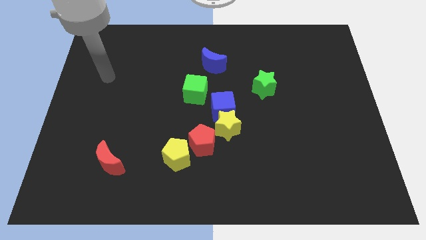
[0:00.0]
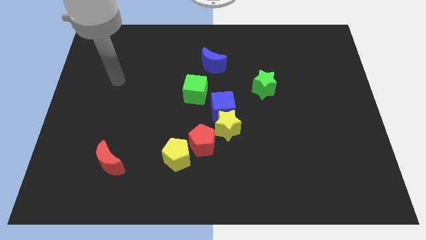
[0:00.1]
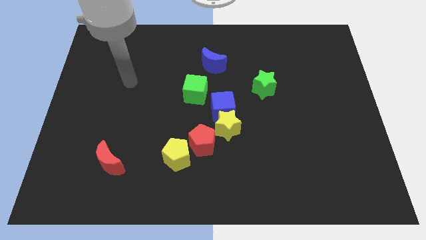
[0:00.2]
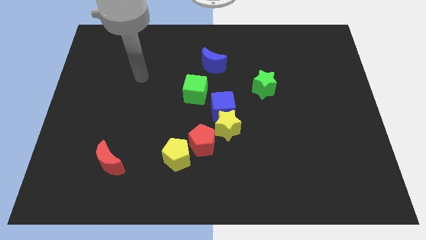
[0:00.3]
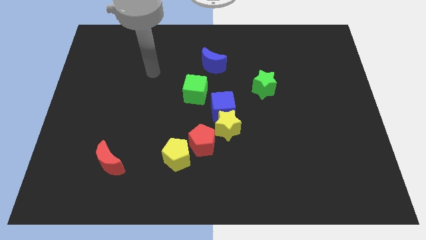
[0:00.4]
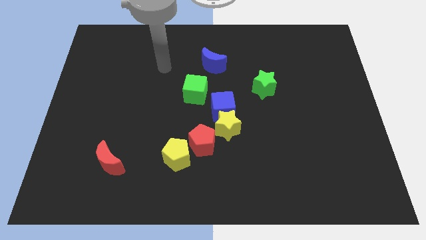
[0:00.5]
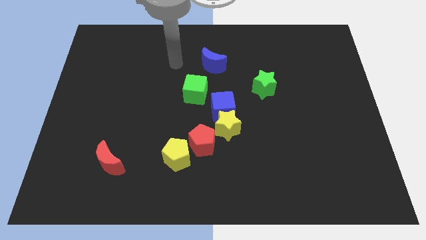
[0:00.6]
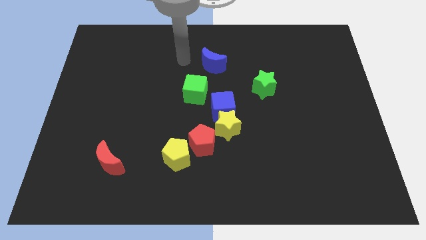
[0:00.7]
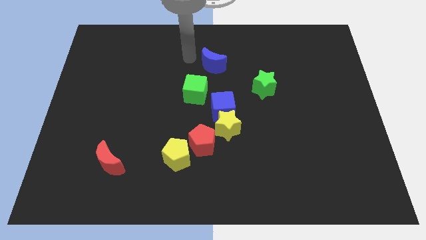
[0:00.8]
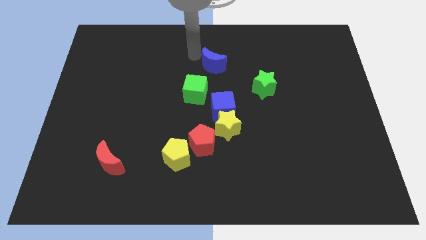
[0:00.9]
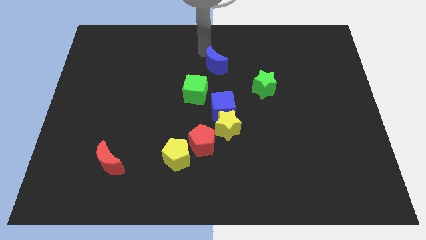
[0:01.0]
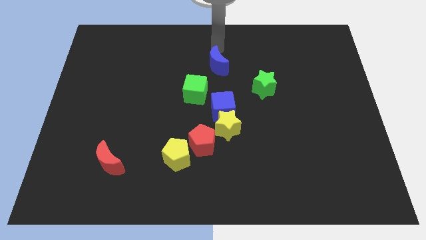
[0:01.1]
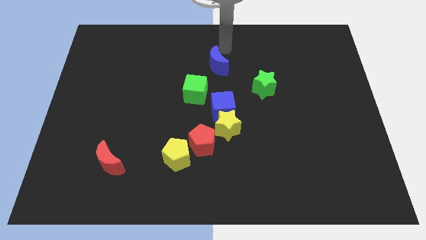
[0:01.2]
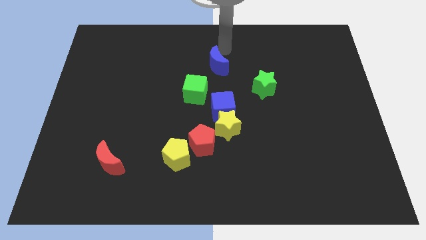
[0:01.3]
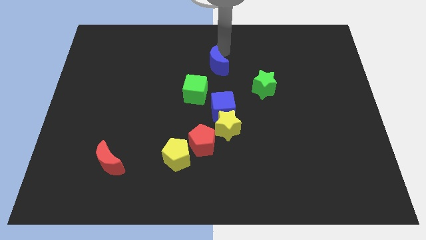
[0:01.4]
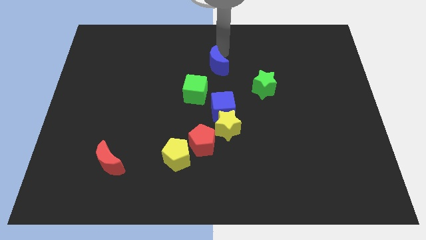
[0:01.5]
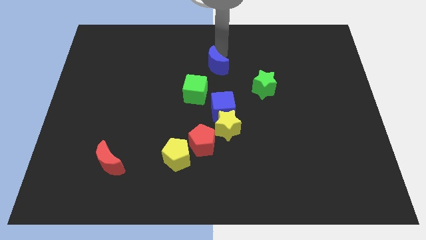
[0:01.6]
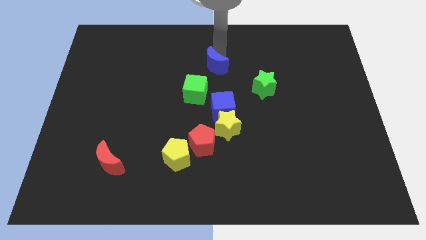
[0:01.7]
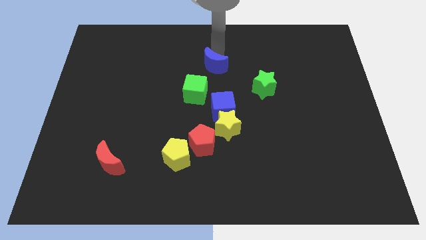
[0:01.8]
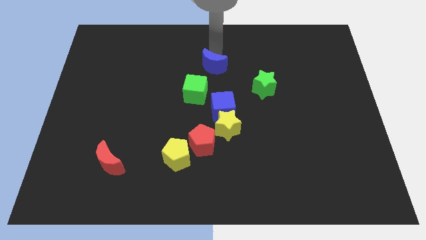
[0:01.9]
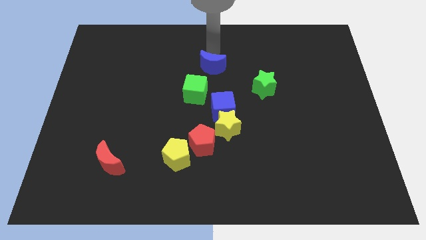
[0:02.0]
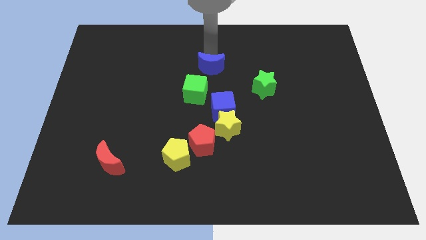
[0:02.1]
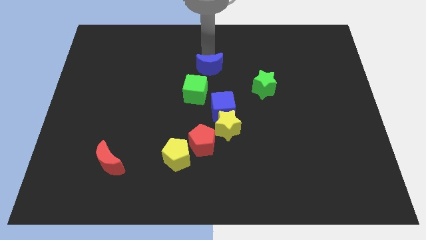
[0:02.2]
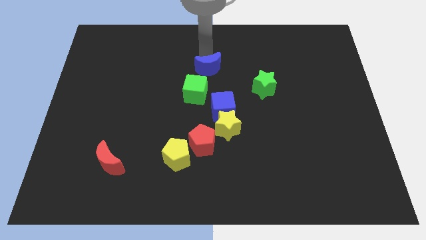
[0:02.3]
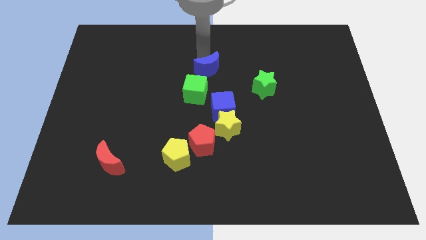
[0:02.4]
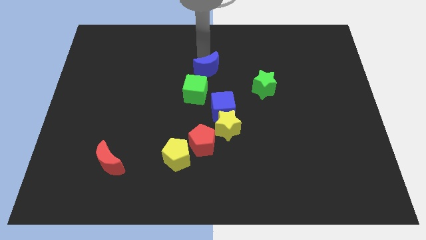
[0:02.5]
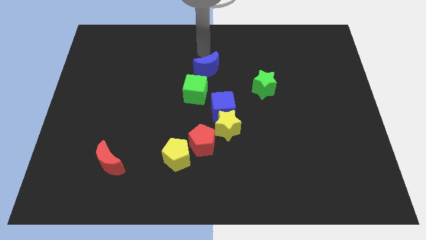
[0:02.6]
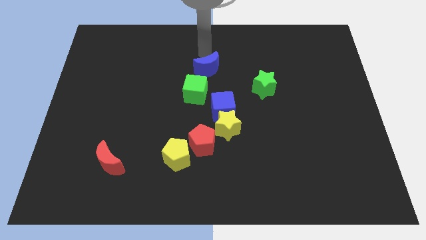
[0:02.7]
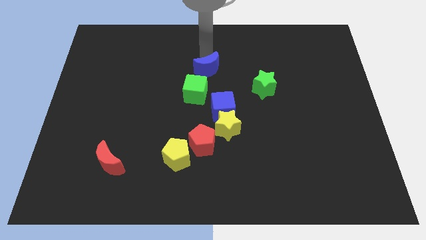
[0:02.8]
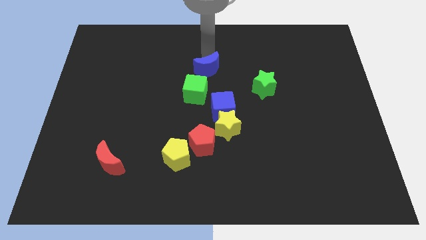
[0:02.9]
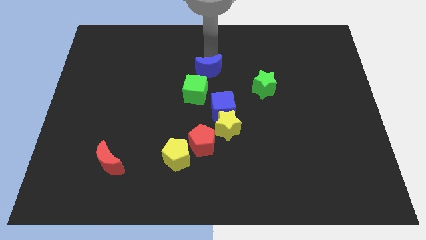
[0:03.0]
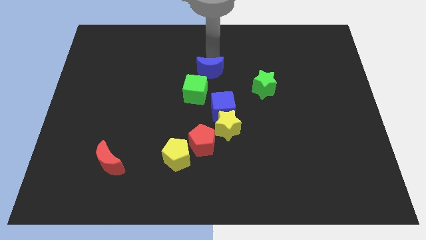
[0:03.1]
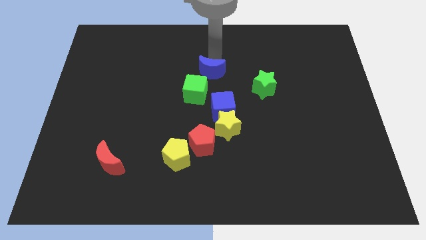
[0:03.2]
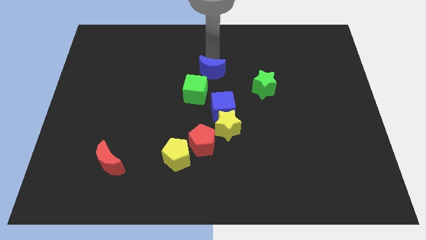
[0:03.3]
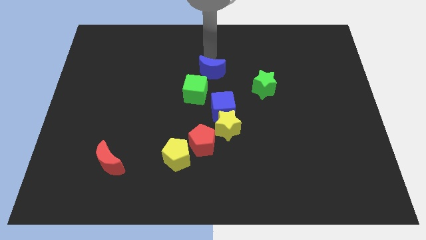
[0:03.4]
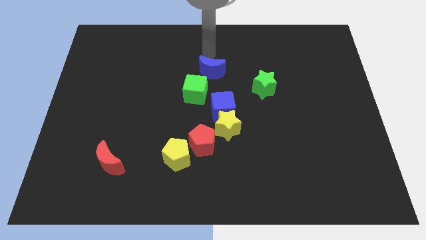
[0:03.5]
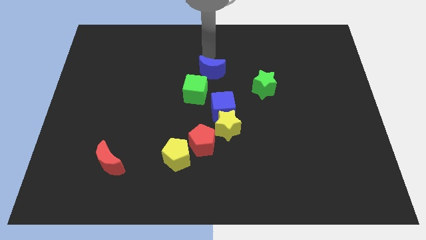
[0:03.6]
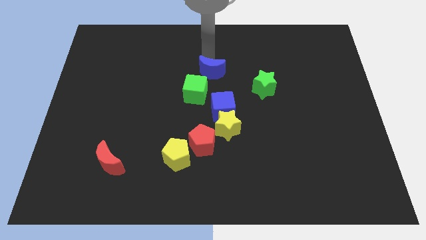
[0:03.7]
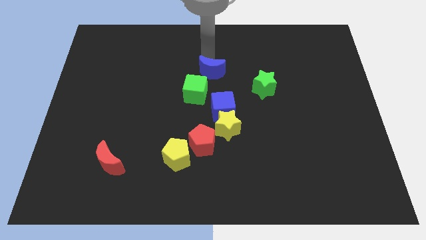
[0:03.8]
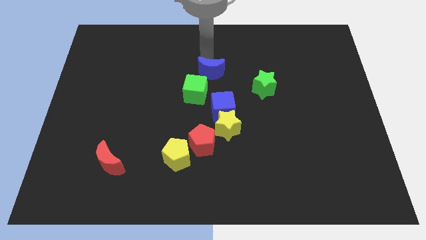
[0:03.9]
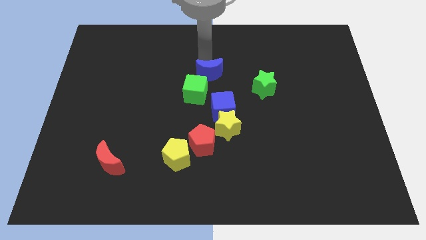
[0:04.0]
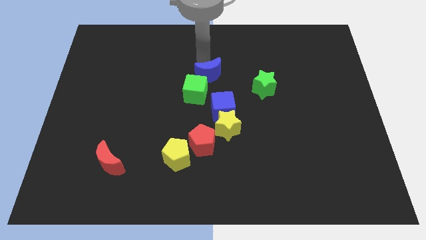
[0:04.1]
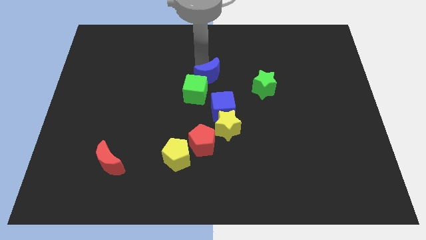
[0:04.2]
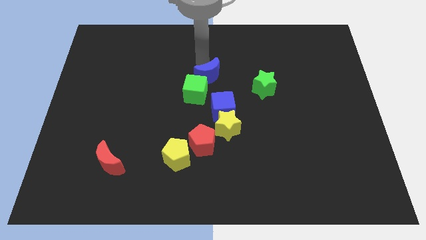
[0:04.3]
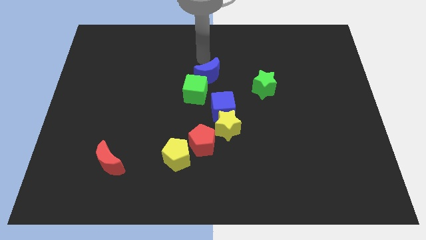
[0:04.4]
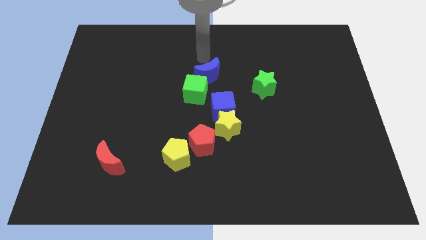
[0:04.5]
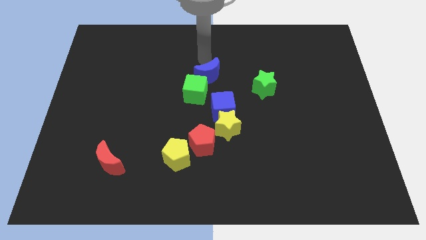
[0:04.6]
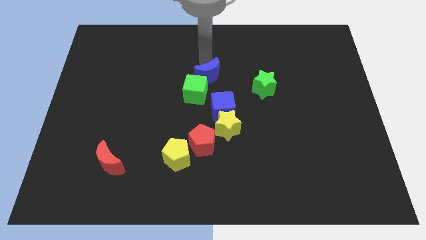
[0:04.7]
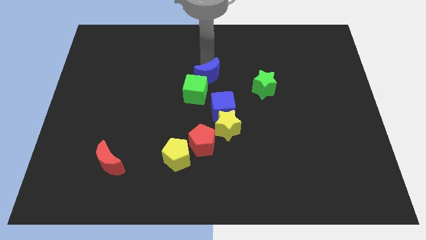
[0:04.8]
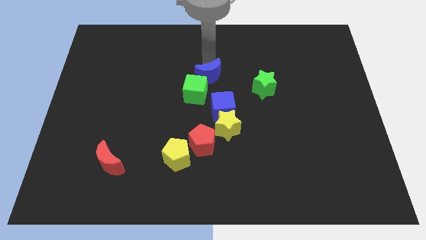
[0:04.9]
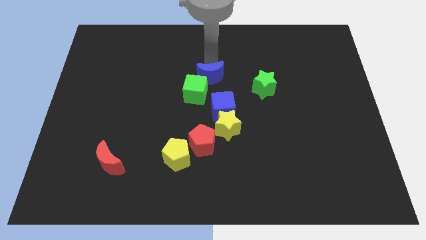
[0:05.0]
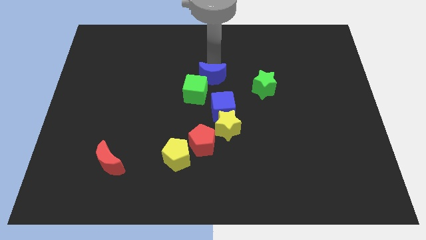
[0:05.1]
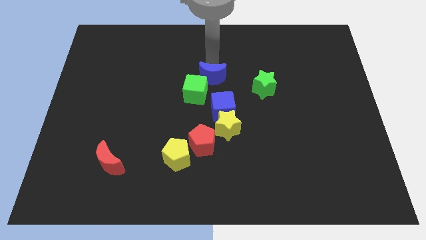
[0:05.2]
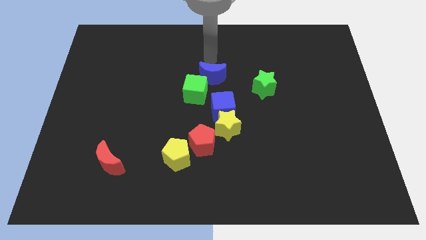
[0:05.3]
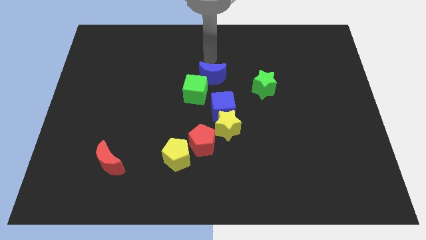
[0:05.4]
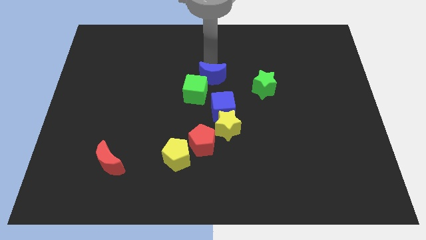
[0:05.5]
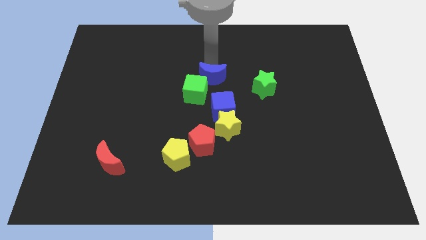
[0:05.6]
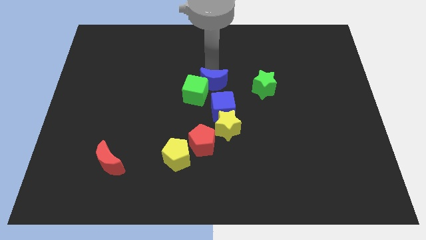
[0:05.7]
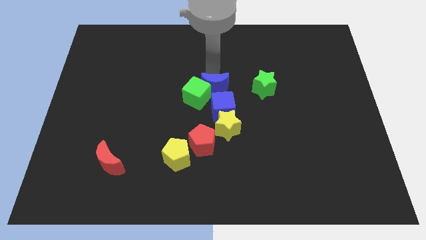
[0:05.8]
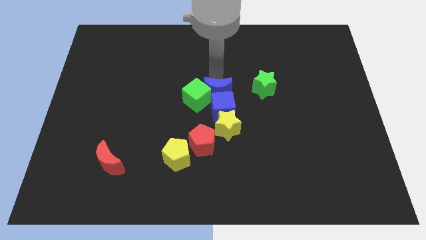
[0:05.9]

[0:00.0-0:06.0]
push the blue moon above the red pentagon
